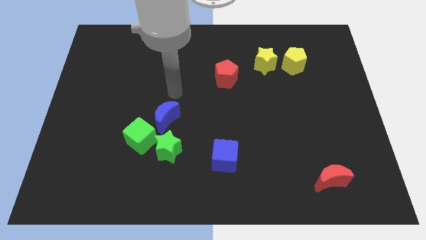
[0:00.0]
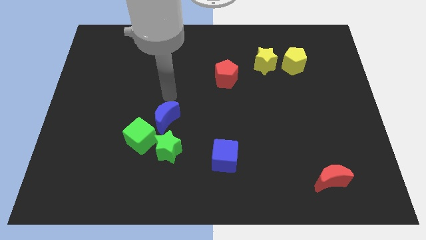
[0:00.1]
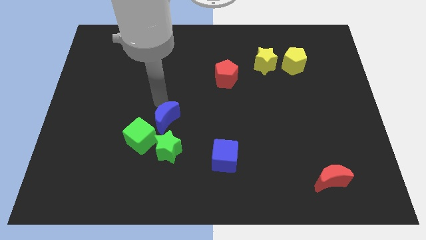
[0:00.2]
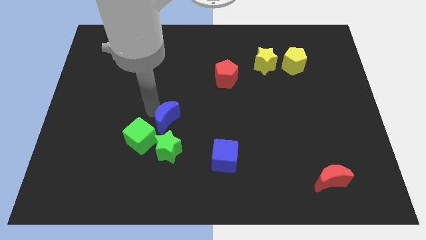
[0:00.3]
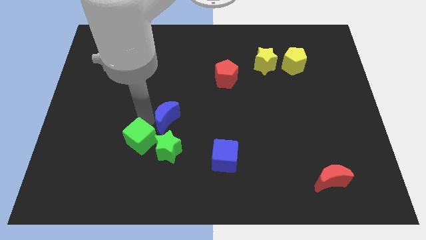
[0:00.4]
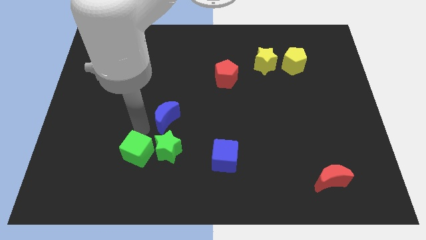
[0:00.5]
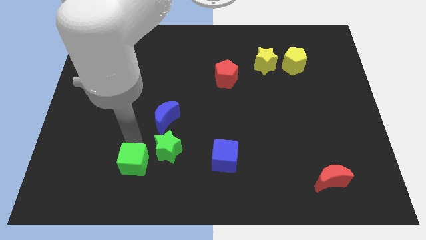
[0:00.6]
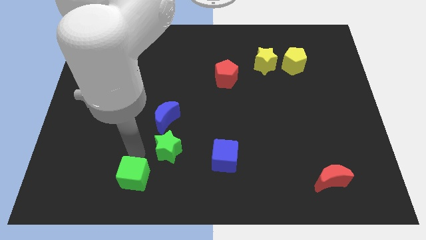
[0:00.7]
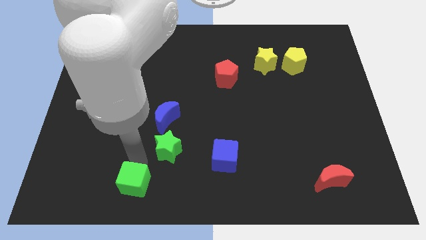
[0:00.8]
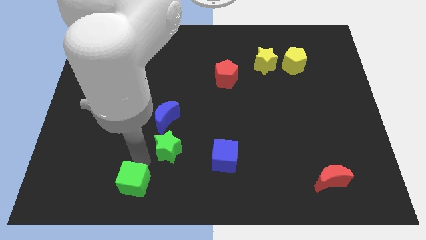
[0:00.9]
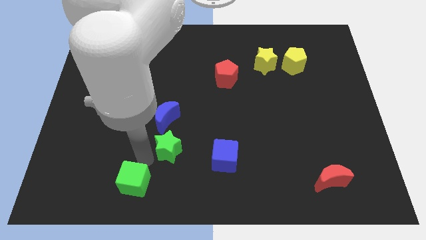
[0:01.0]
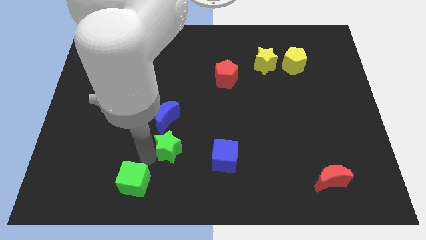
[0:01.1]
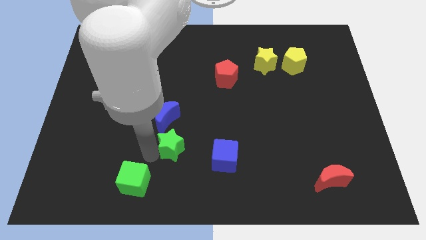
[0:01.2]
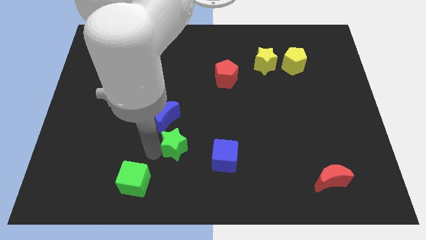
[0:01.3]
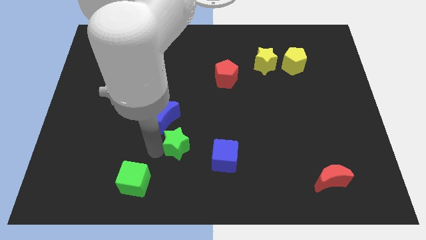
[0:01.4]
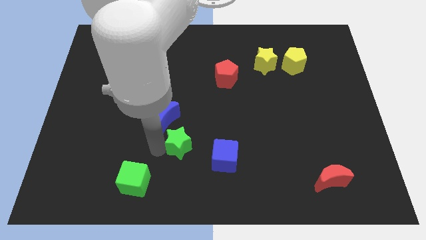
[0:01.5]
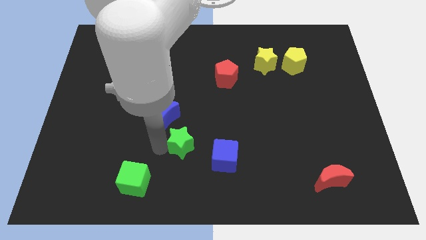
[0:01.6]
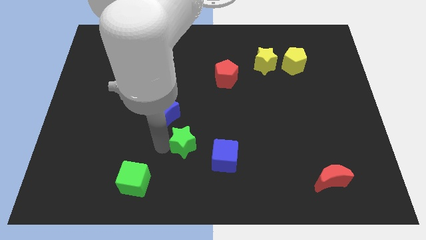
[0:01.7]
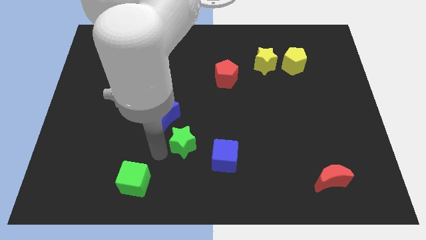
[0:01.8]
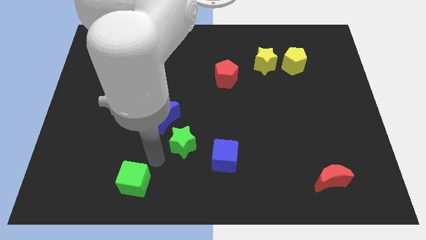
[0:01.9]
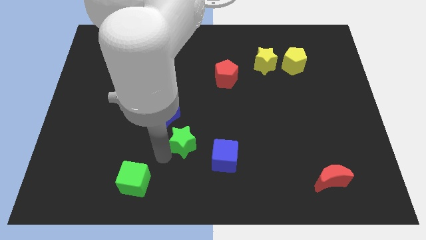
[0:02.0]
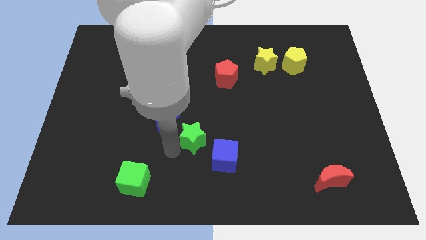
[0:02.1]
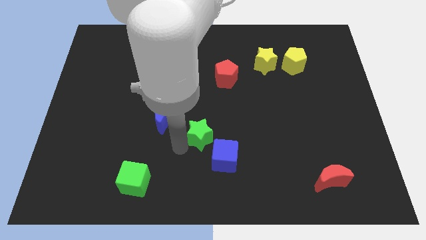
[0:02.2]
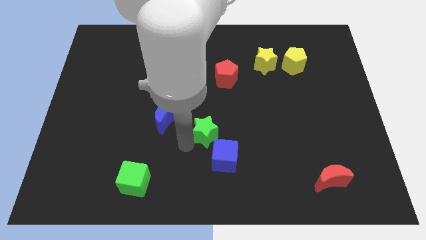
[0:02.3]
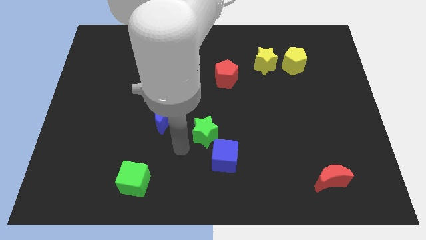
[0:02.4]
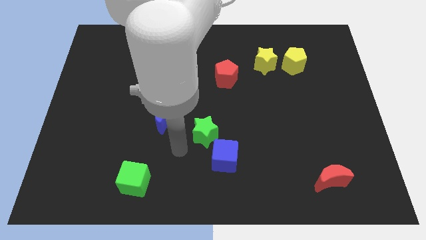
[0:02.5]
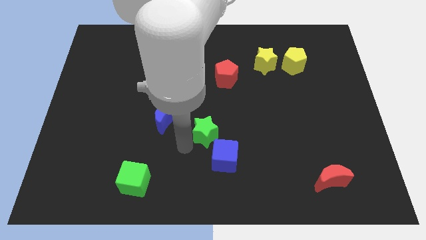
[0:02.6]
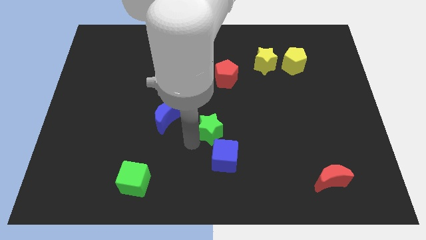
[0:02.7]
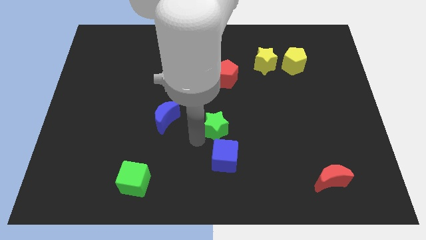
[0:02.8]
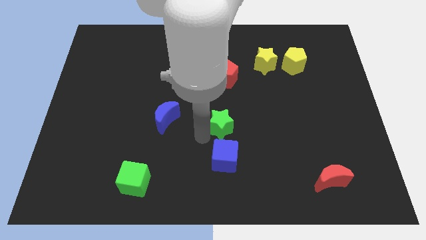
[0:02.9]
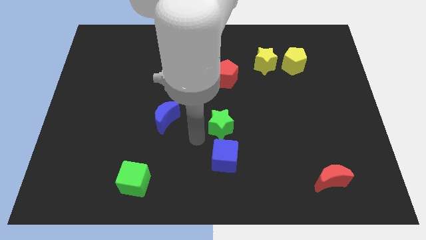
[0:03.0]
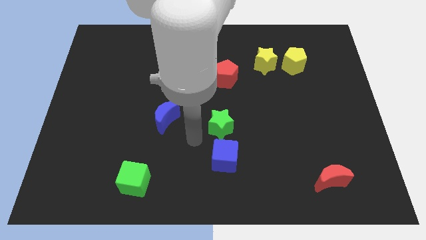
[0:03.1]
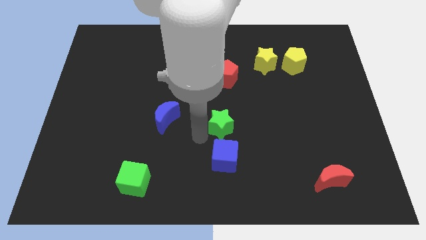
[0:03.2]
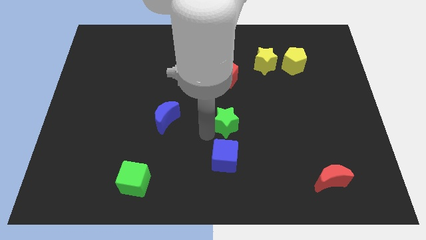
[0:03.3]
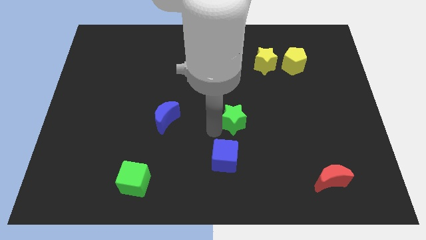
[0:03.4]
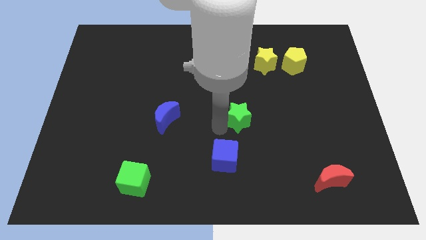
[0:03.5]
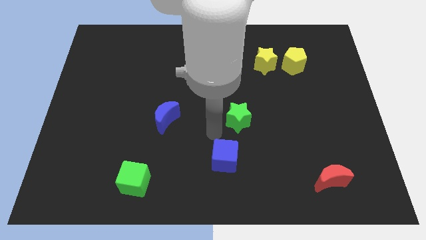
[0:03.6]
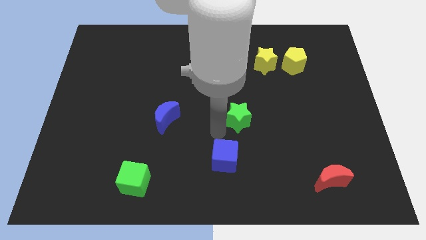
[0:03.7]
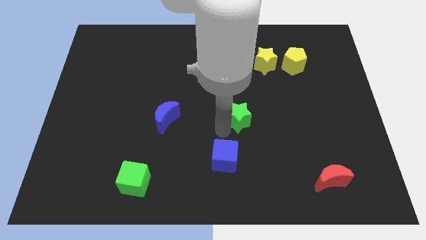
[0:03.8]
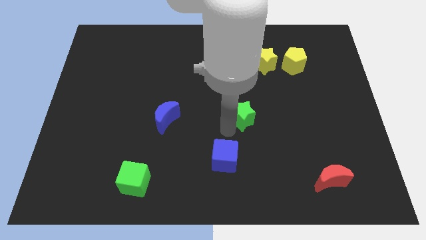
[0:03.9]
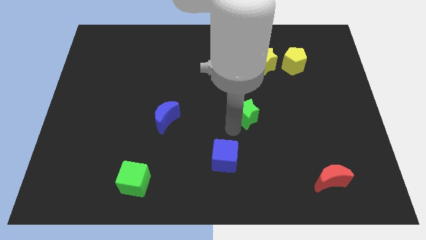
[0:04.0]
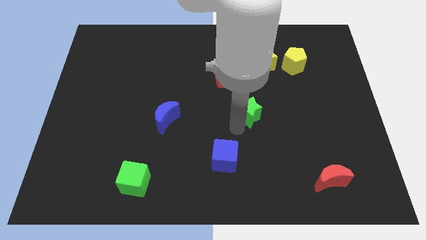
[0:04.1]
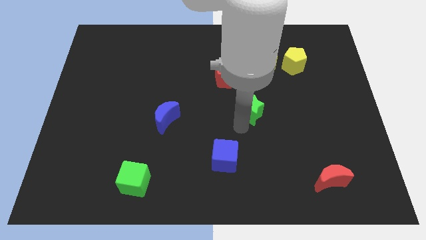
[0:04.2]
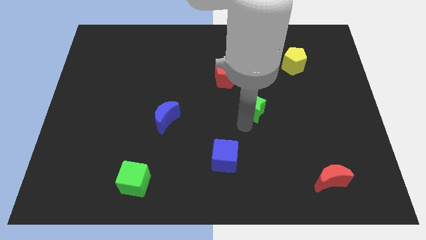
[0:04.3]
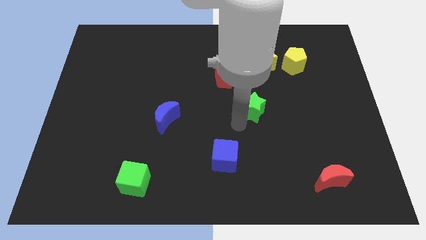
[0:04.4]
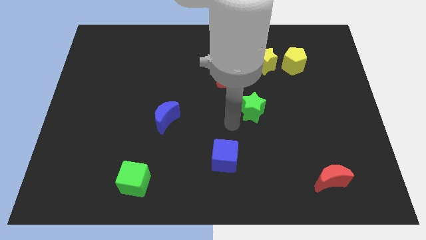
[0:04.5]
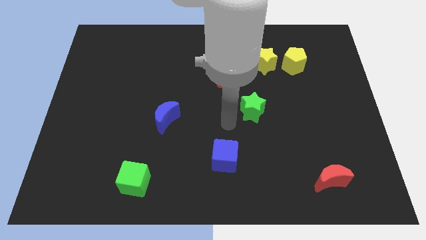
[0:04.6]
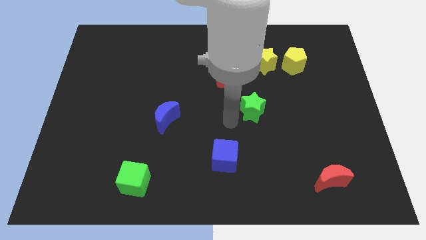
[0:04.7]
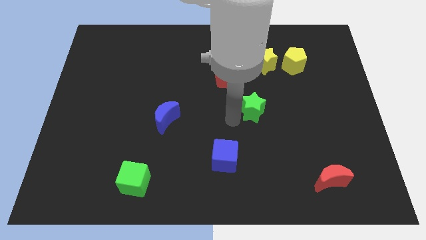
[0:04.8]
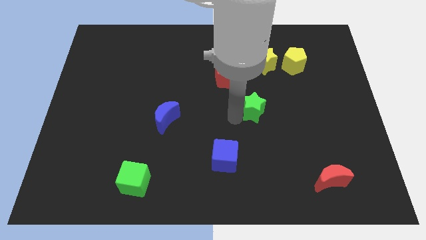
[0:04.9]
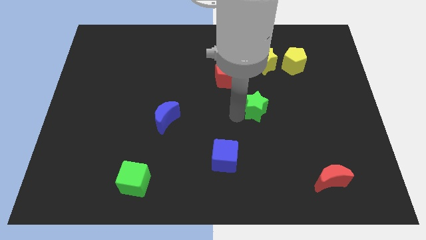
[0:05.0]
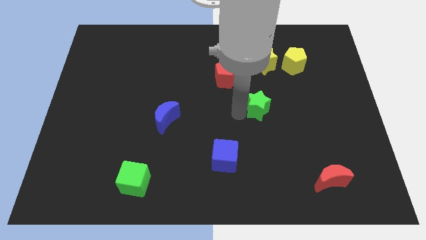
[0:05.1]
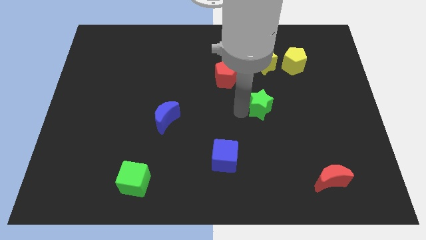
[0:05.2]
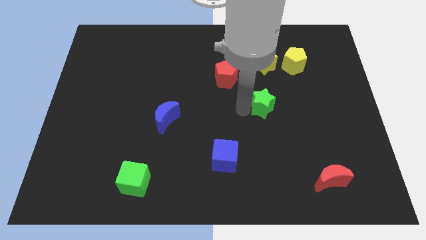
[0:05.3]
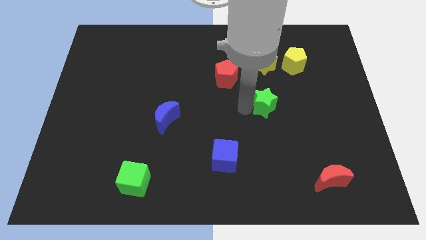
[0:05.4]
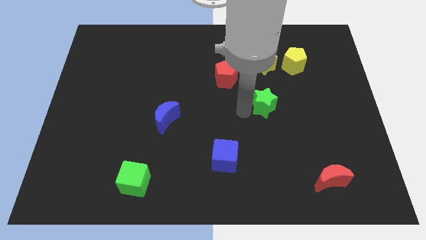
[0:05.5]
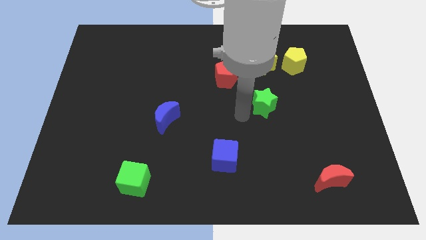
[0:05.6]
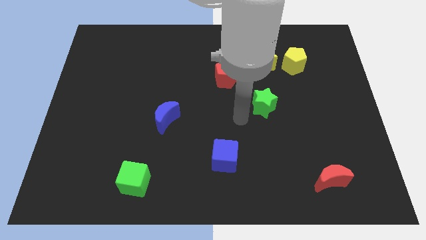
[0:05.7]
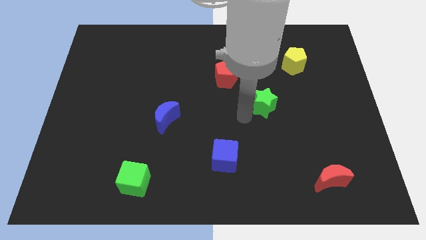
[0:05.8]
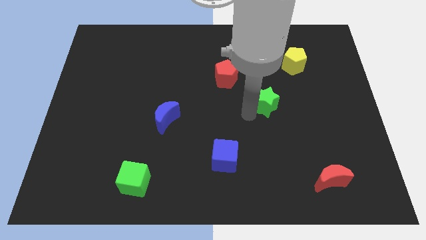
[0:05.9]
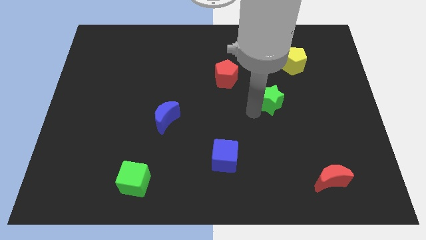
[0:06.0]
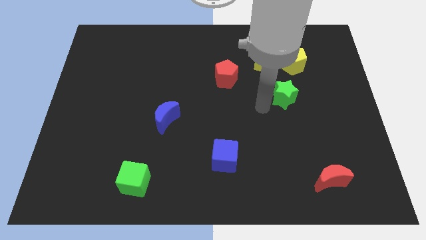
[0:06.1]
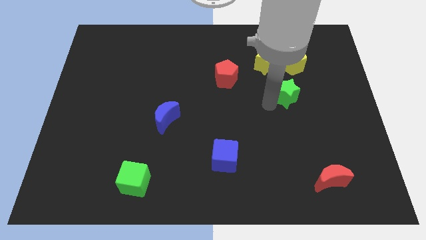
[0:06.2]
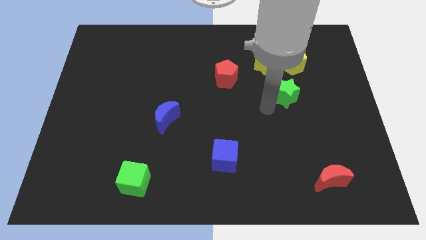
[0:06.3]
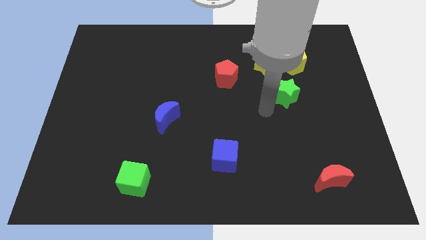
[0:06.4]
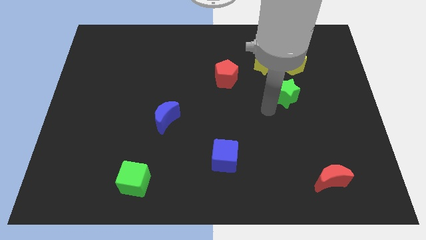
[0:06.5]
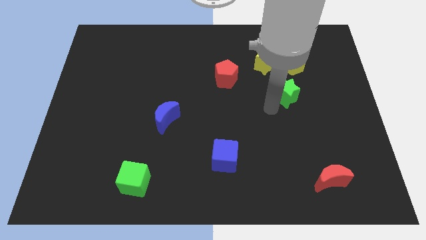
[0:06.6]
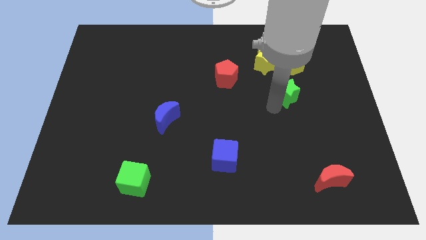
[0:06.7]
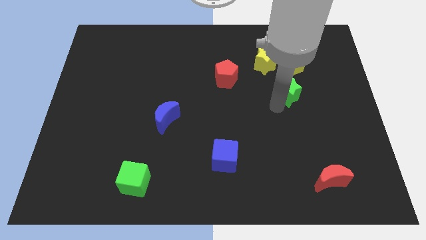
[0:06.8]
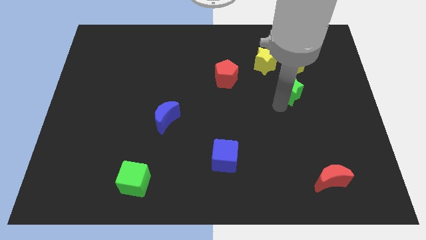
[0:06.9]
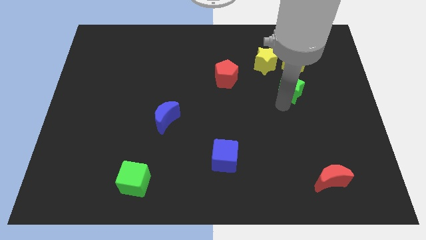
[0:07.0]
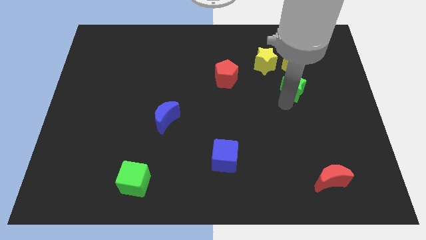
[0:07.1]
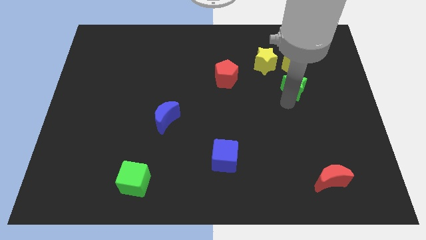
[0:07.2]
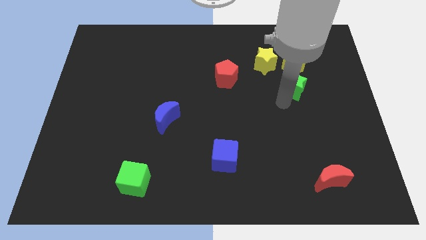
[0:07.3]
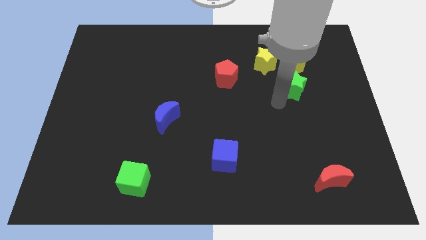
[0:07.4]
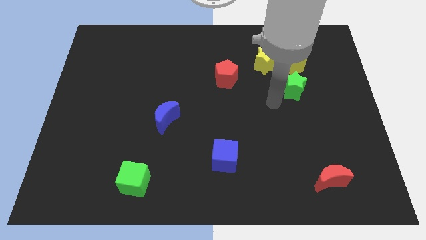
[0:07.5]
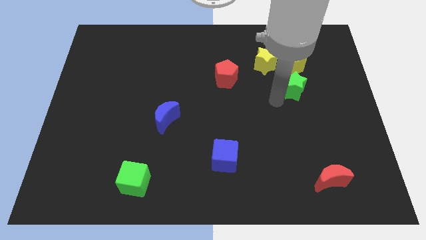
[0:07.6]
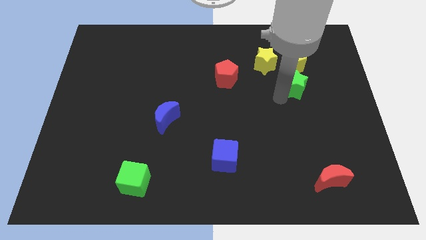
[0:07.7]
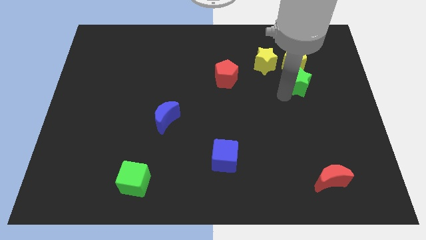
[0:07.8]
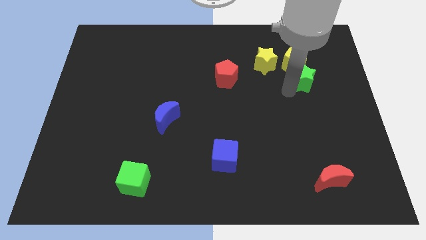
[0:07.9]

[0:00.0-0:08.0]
push the green star diagonally down and to the right of the yellow pentagon
